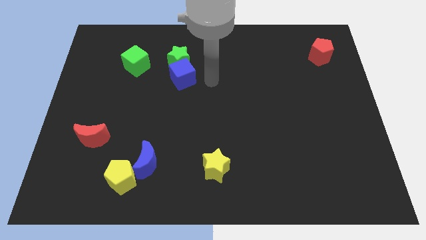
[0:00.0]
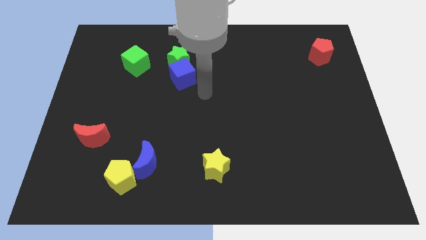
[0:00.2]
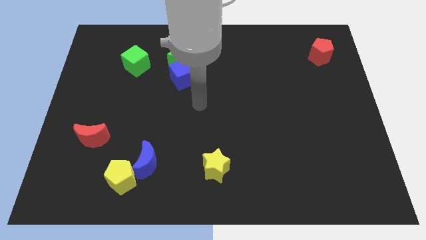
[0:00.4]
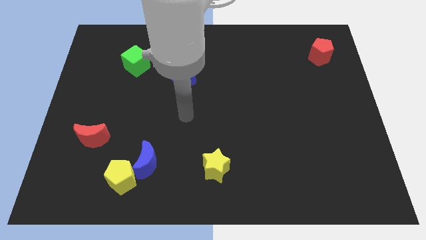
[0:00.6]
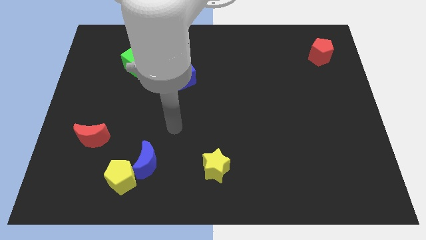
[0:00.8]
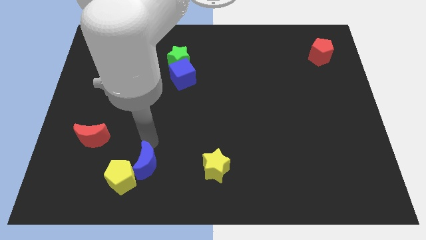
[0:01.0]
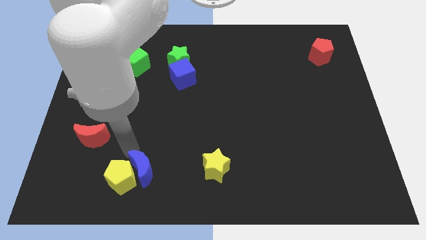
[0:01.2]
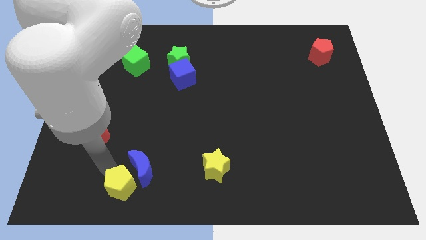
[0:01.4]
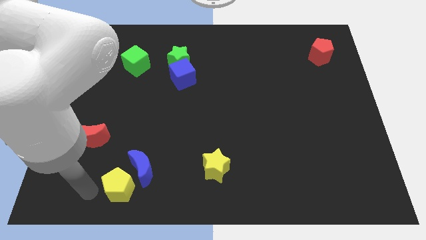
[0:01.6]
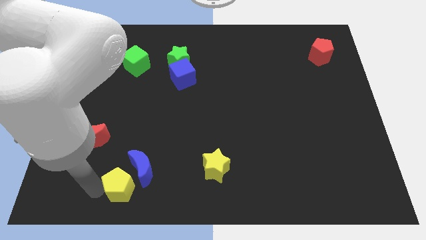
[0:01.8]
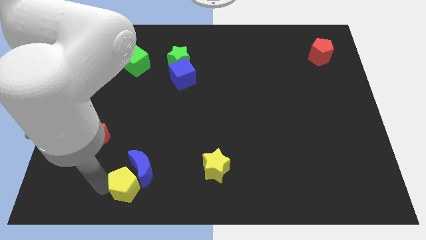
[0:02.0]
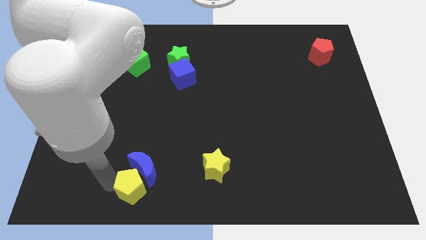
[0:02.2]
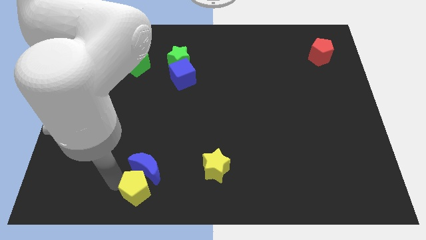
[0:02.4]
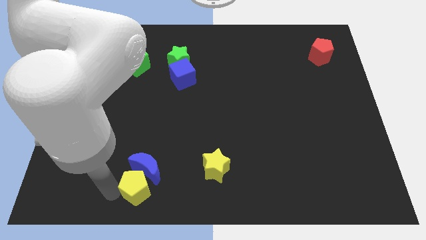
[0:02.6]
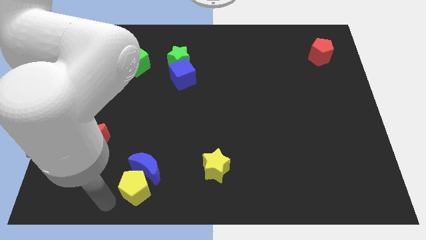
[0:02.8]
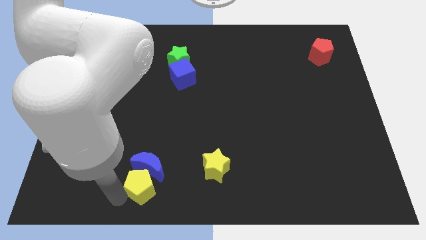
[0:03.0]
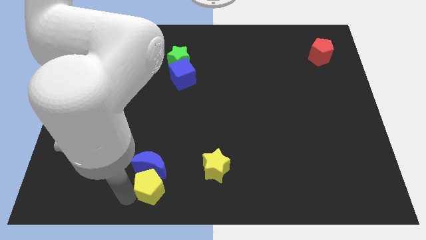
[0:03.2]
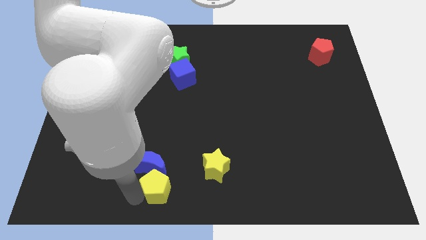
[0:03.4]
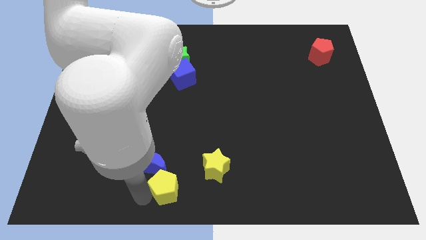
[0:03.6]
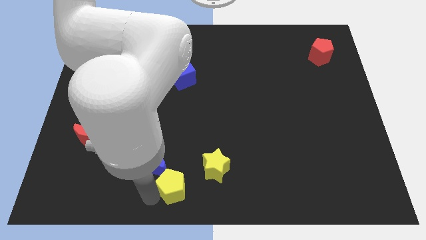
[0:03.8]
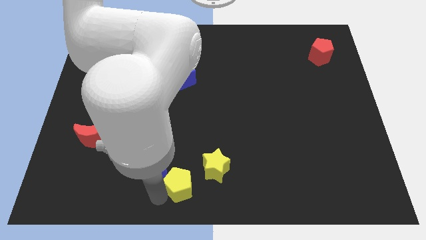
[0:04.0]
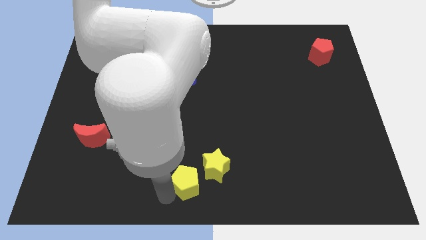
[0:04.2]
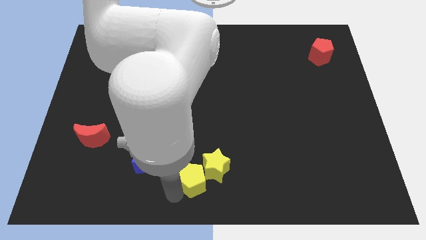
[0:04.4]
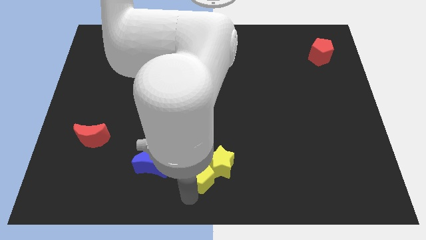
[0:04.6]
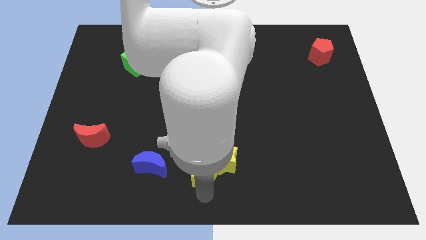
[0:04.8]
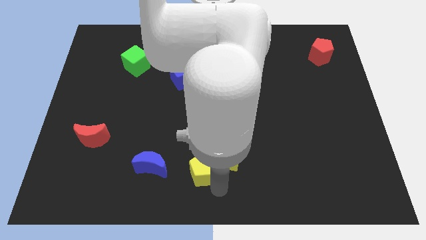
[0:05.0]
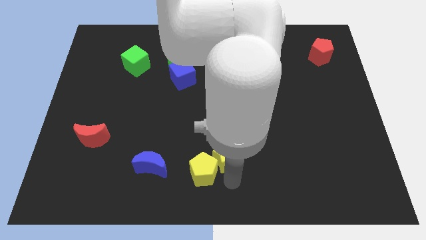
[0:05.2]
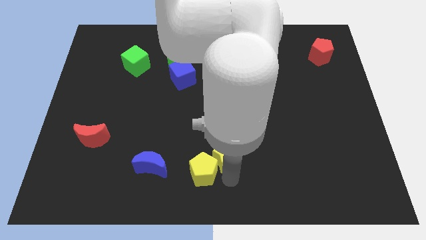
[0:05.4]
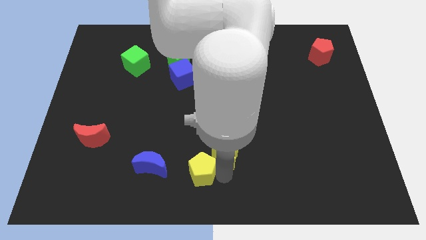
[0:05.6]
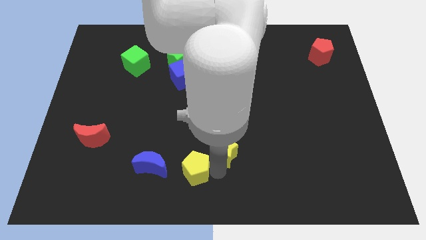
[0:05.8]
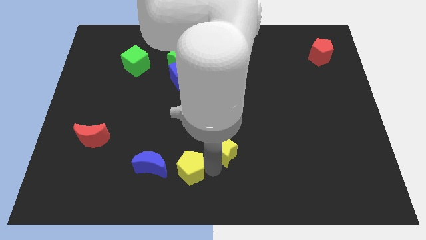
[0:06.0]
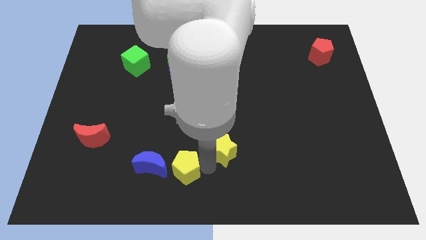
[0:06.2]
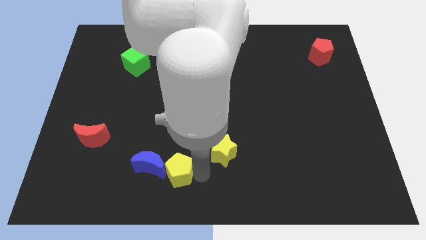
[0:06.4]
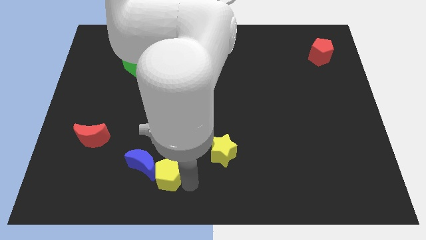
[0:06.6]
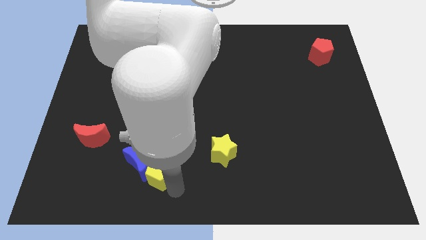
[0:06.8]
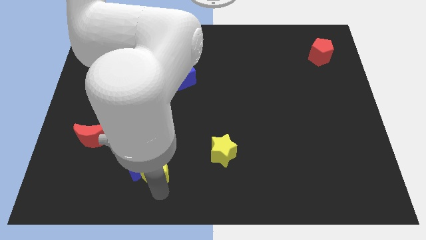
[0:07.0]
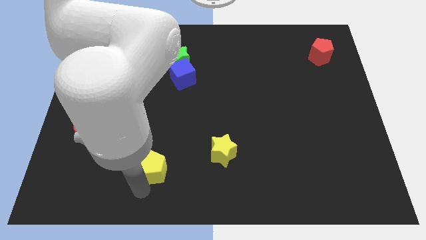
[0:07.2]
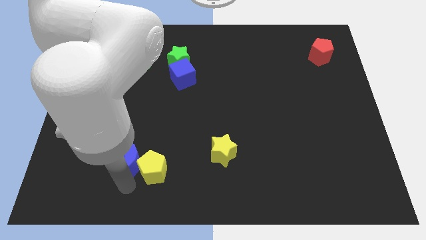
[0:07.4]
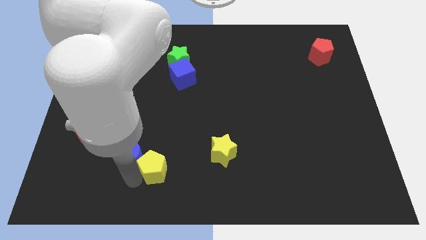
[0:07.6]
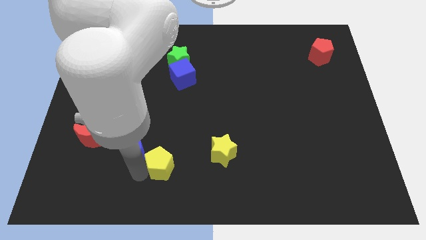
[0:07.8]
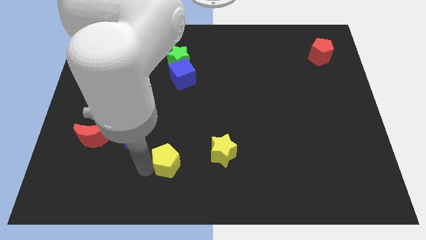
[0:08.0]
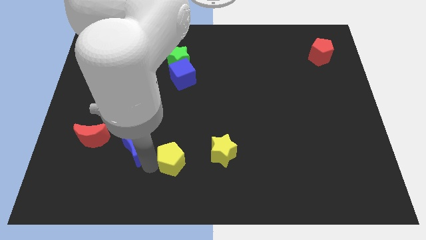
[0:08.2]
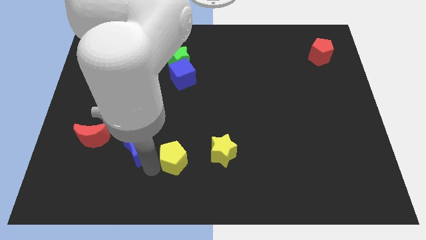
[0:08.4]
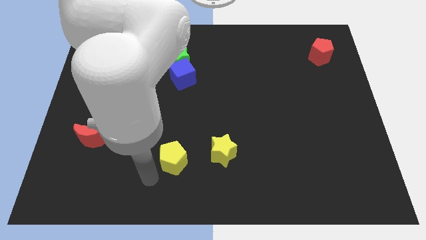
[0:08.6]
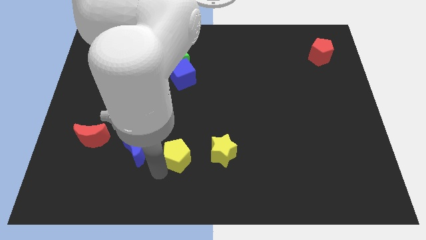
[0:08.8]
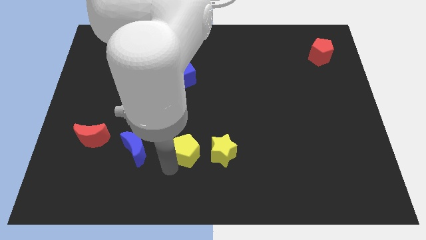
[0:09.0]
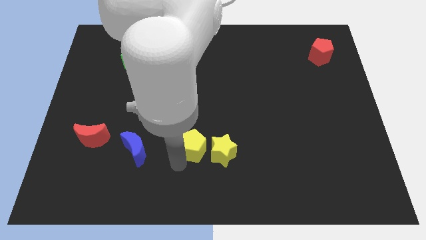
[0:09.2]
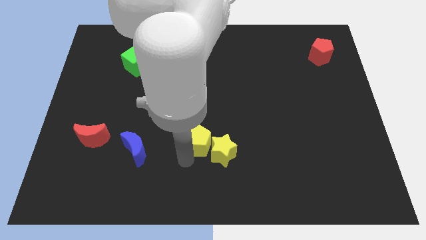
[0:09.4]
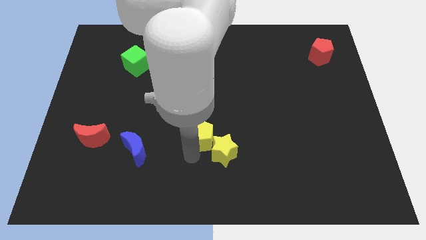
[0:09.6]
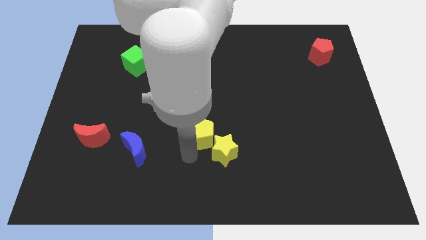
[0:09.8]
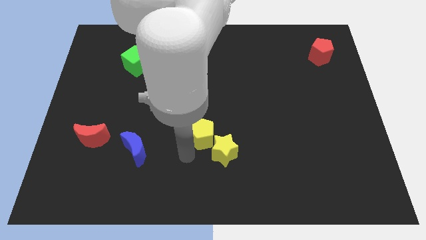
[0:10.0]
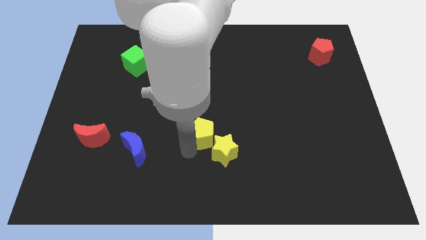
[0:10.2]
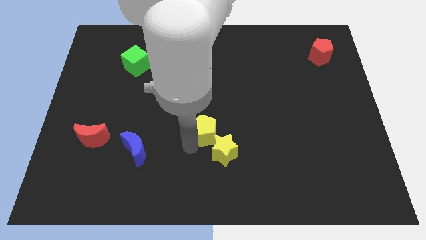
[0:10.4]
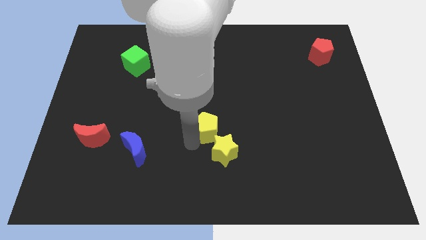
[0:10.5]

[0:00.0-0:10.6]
slide the yellow pentagon up and to the right diagonally

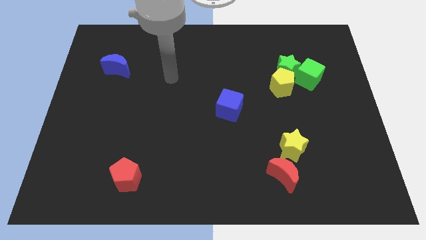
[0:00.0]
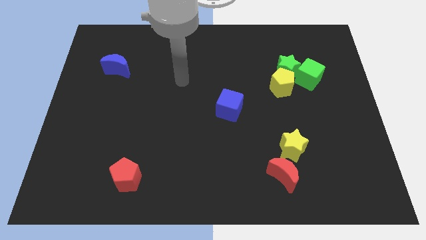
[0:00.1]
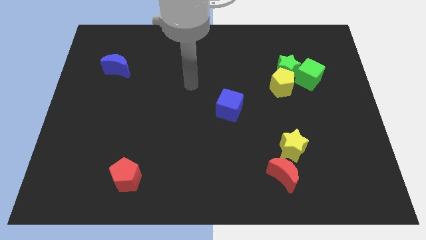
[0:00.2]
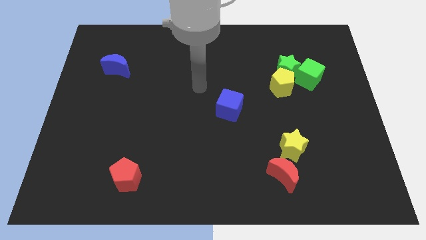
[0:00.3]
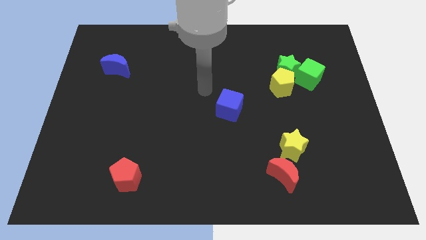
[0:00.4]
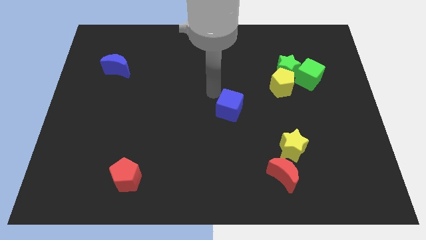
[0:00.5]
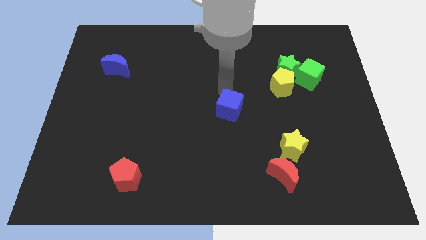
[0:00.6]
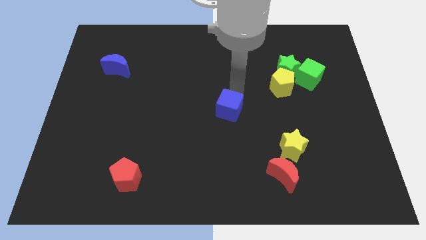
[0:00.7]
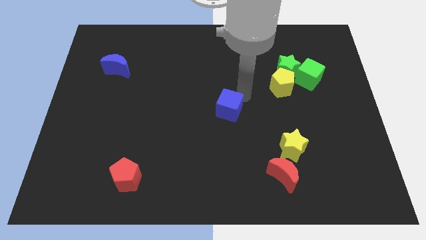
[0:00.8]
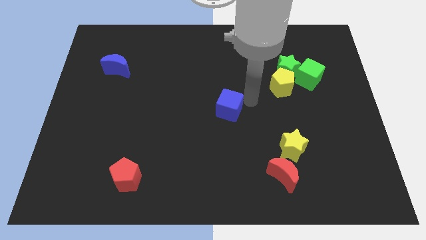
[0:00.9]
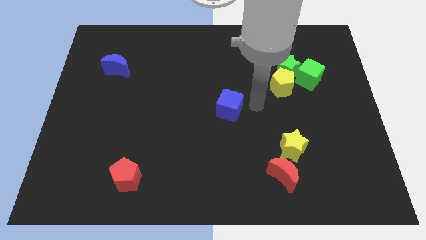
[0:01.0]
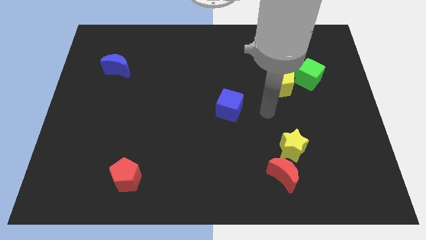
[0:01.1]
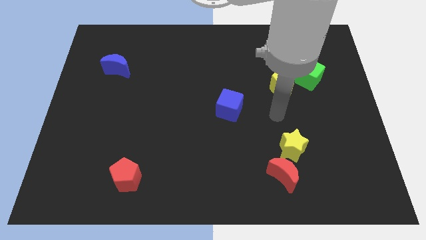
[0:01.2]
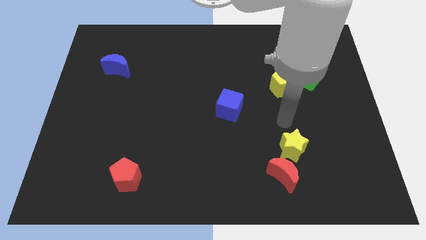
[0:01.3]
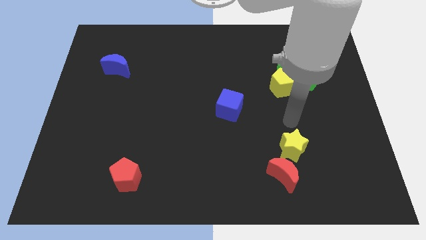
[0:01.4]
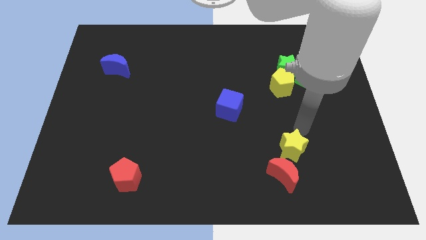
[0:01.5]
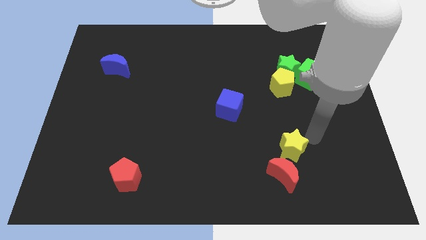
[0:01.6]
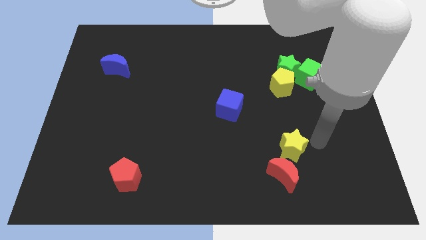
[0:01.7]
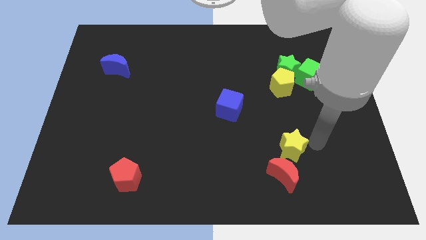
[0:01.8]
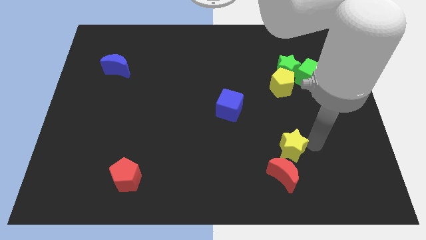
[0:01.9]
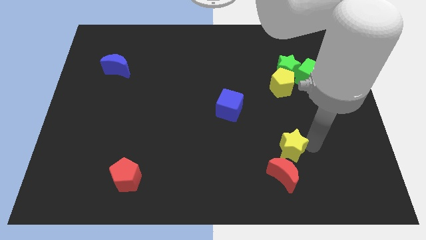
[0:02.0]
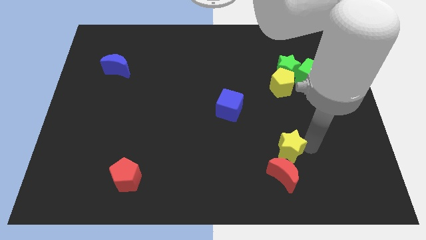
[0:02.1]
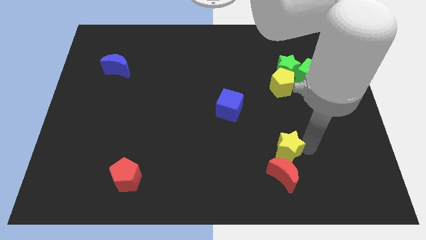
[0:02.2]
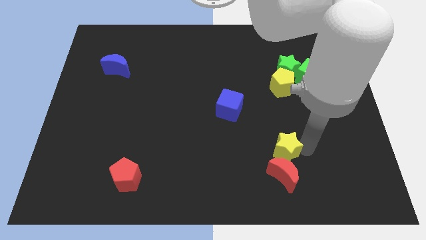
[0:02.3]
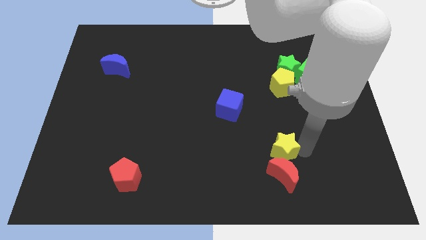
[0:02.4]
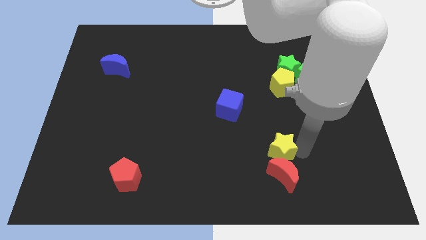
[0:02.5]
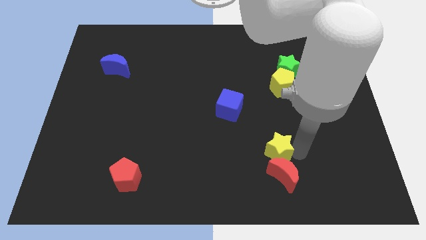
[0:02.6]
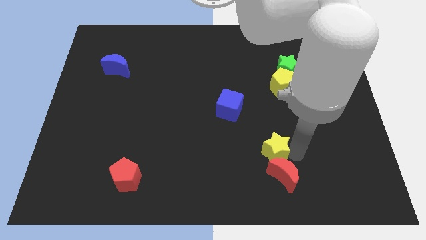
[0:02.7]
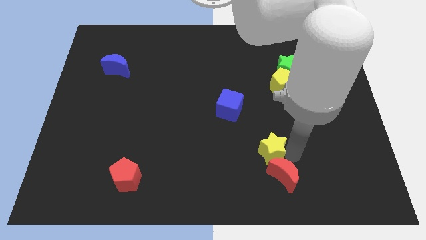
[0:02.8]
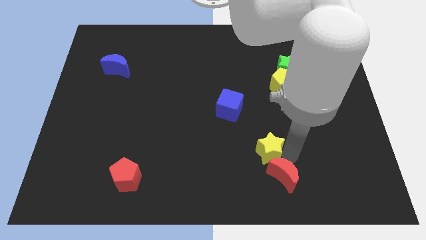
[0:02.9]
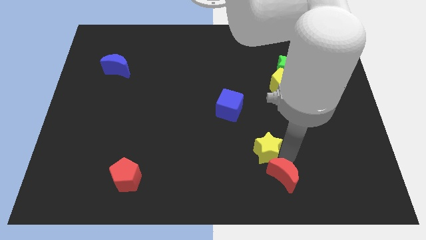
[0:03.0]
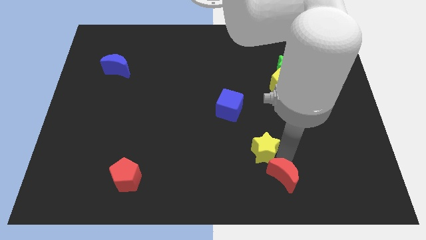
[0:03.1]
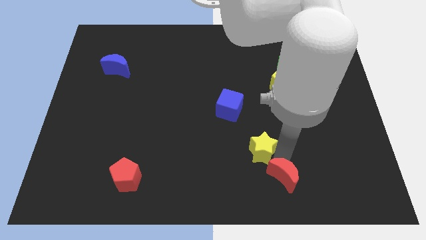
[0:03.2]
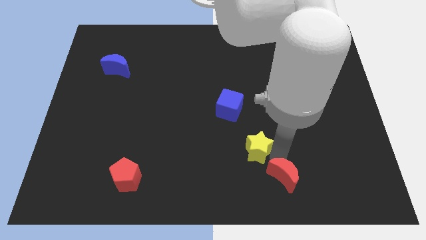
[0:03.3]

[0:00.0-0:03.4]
push the yellow star slightly to the left
